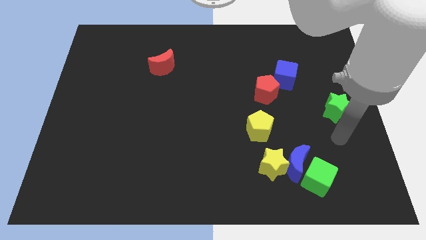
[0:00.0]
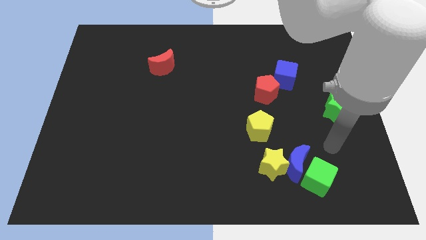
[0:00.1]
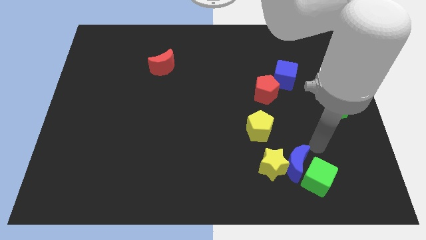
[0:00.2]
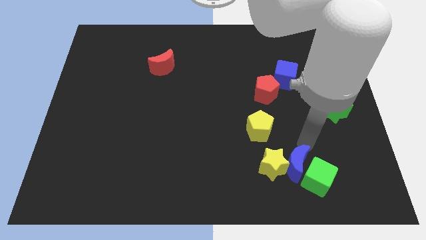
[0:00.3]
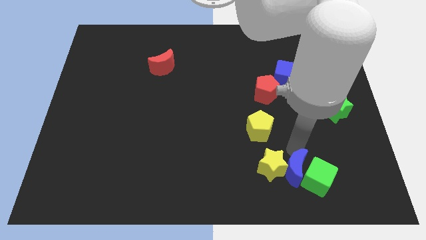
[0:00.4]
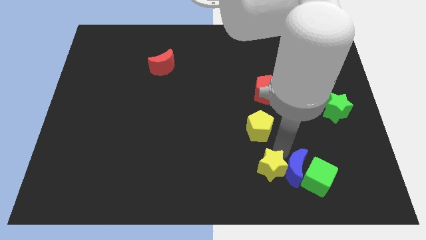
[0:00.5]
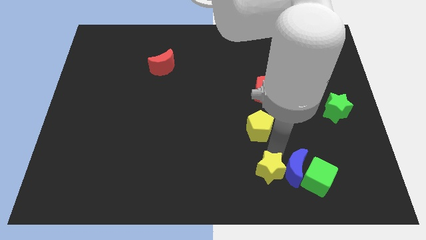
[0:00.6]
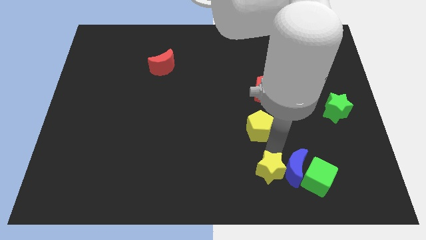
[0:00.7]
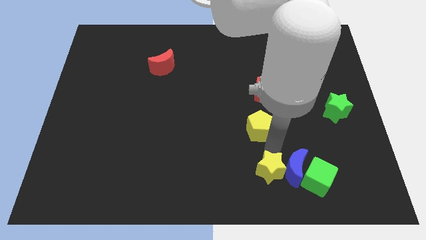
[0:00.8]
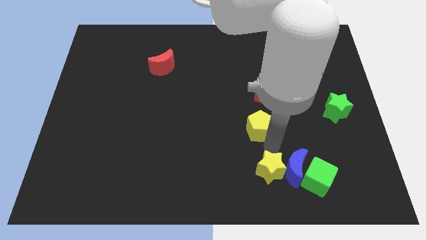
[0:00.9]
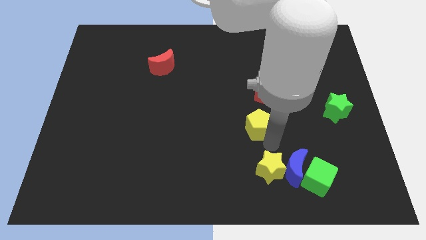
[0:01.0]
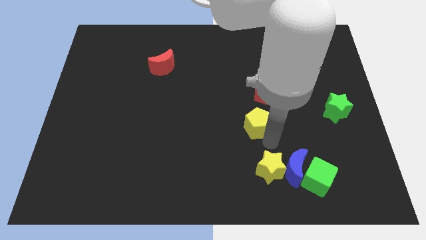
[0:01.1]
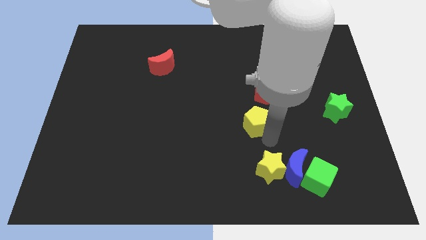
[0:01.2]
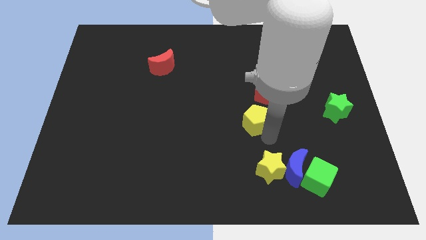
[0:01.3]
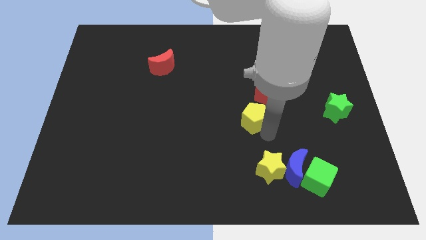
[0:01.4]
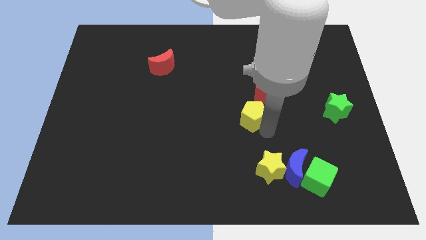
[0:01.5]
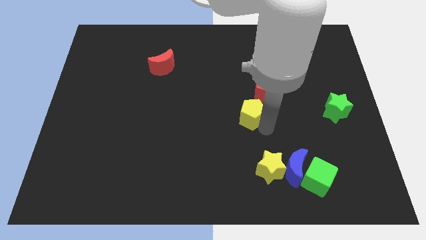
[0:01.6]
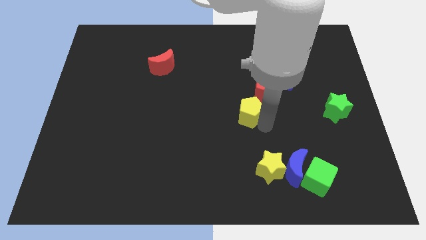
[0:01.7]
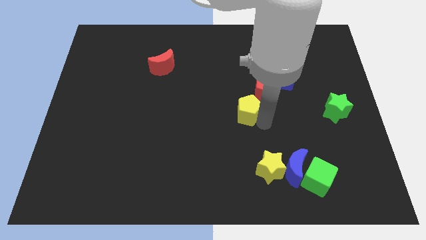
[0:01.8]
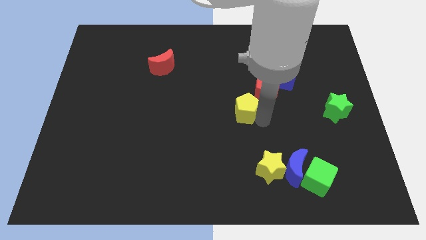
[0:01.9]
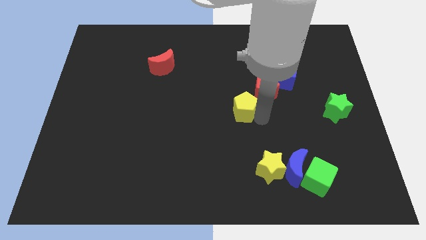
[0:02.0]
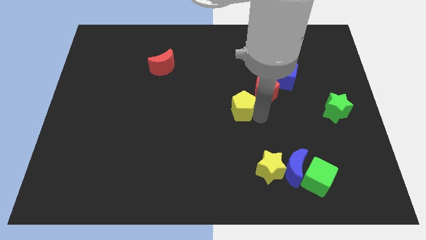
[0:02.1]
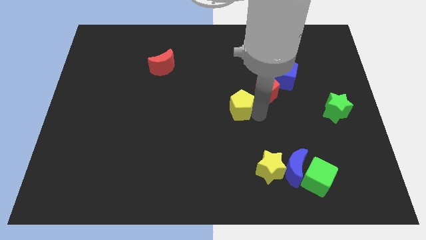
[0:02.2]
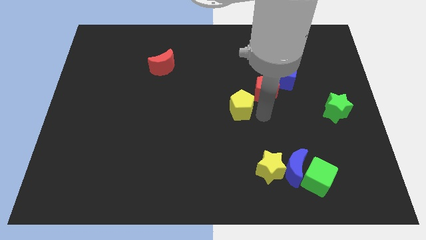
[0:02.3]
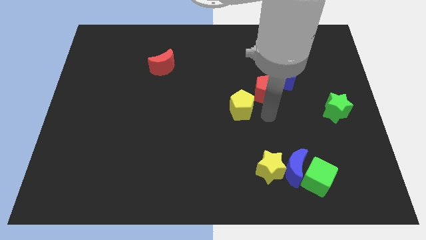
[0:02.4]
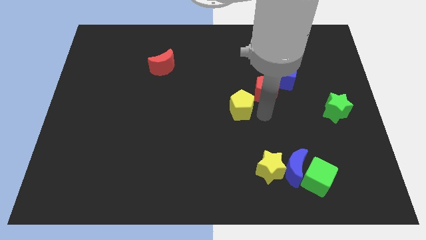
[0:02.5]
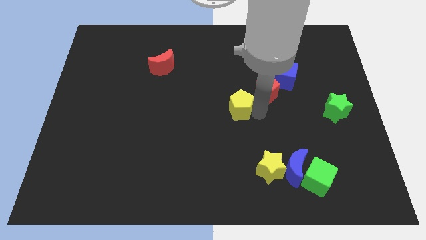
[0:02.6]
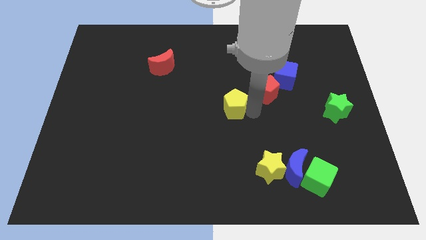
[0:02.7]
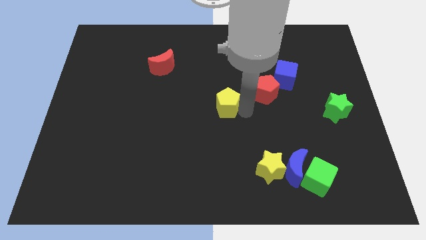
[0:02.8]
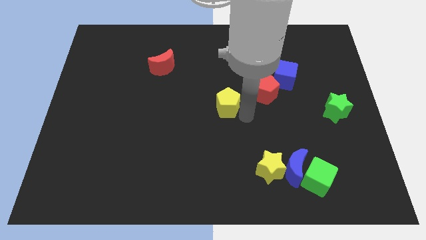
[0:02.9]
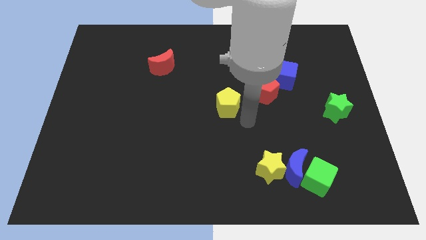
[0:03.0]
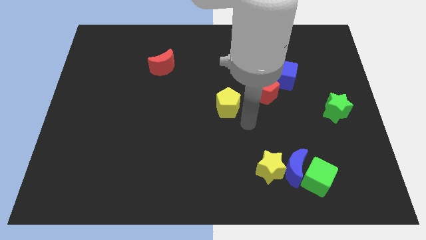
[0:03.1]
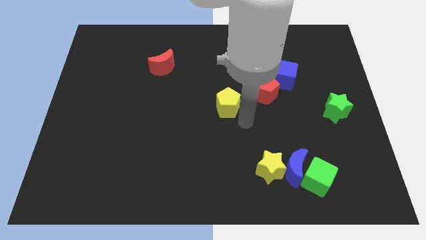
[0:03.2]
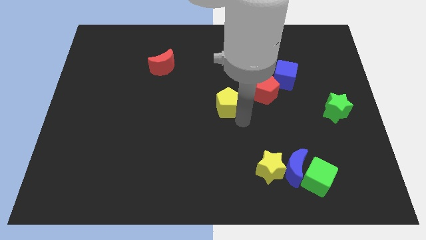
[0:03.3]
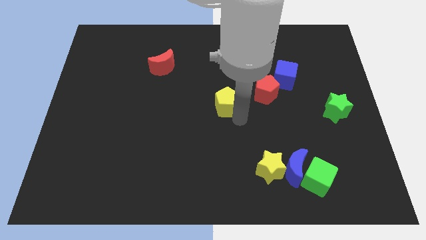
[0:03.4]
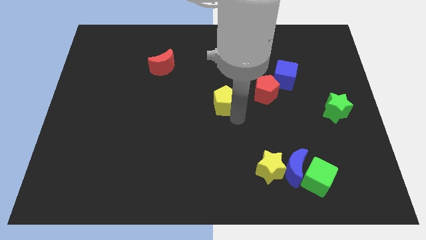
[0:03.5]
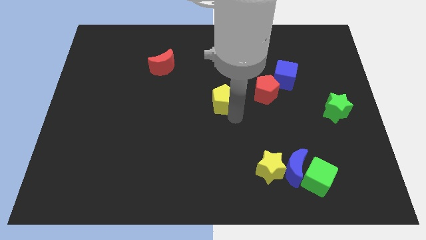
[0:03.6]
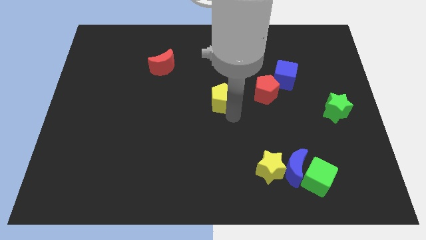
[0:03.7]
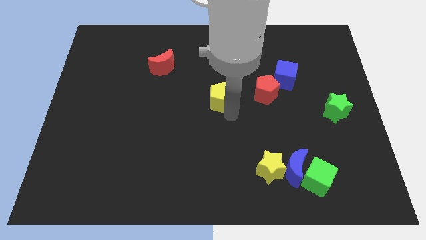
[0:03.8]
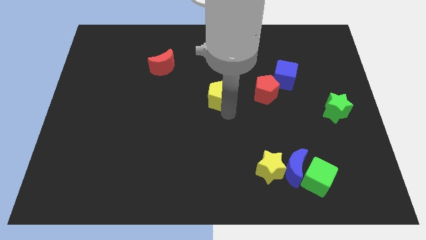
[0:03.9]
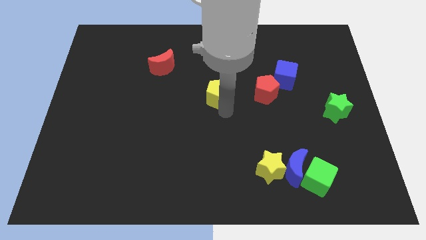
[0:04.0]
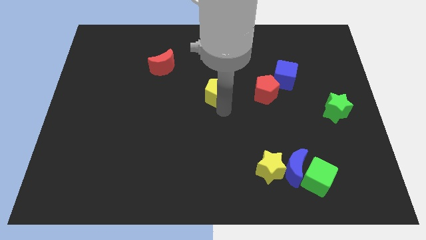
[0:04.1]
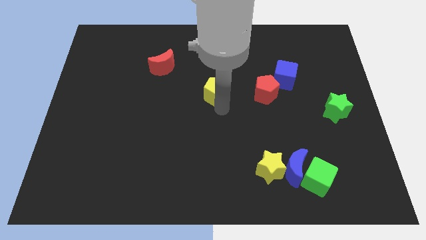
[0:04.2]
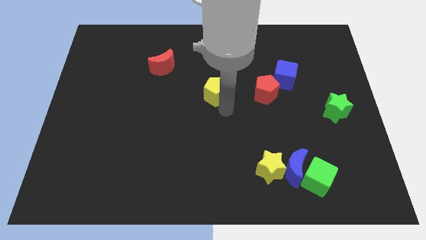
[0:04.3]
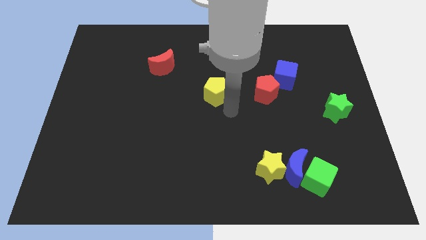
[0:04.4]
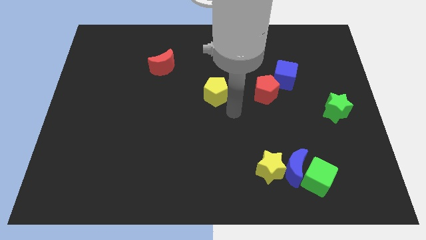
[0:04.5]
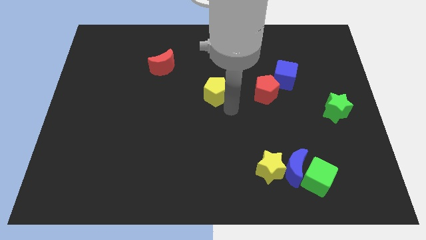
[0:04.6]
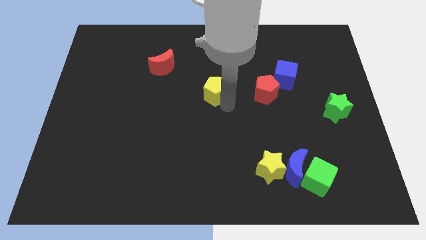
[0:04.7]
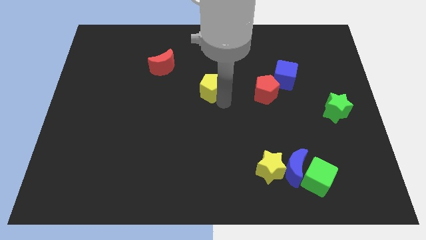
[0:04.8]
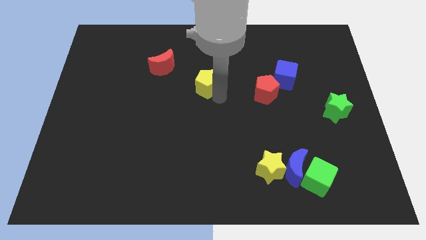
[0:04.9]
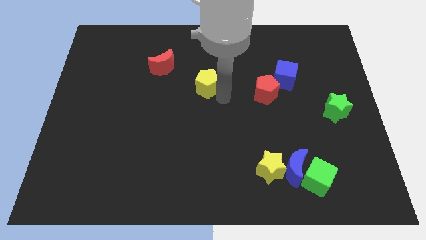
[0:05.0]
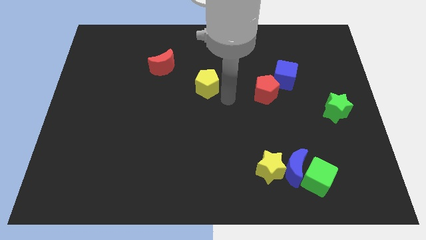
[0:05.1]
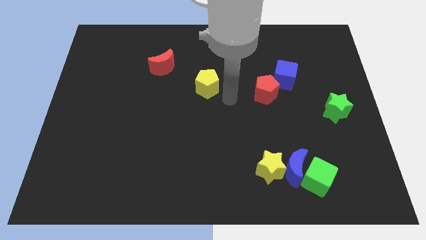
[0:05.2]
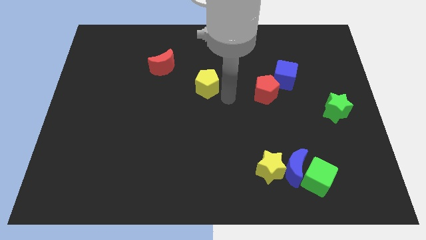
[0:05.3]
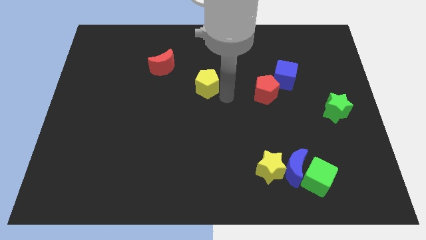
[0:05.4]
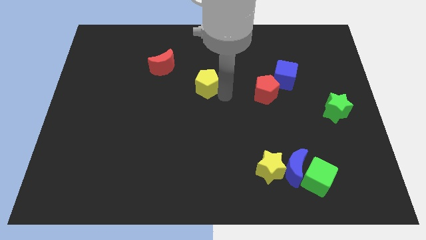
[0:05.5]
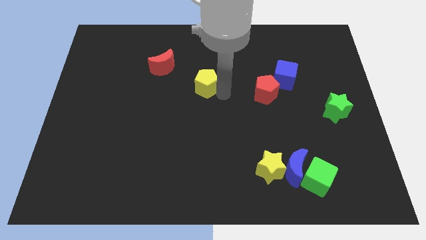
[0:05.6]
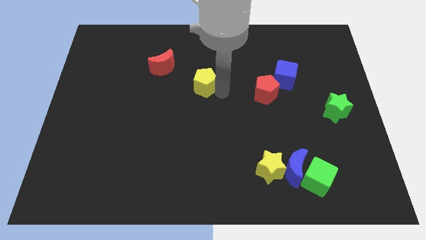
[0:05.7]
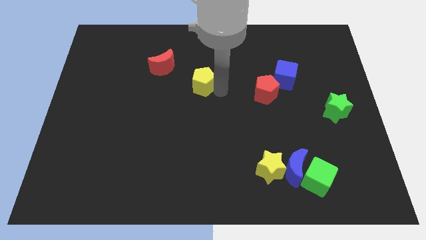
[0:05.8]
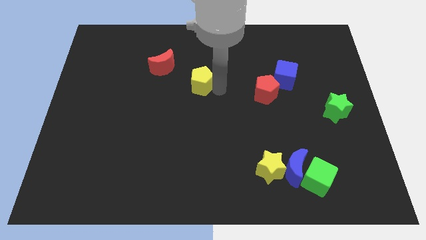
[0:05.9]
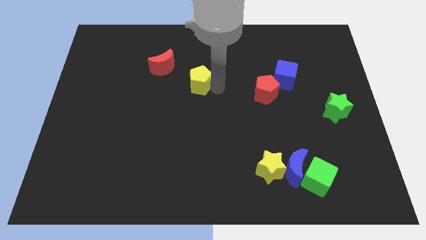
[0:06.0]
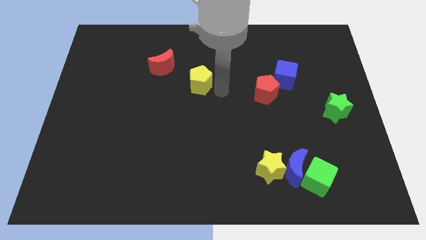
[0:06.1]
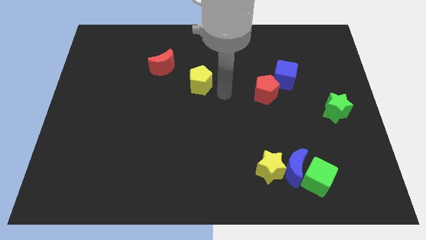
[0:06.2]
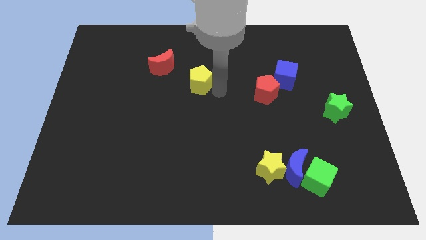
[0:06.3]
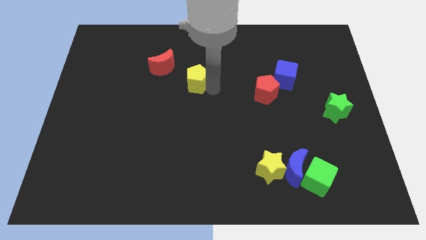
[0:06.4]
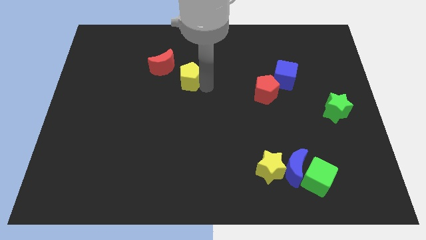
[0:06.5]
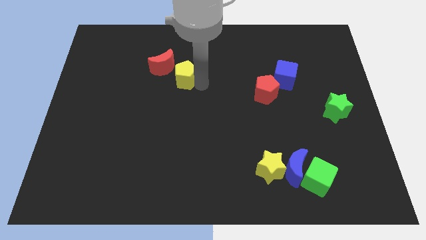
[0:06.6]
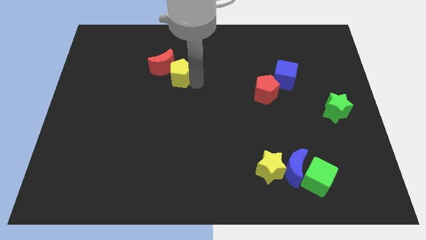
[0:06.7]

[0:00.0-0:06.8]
put the yellow pentagon towards the red moon

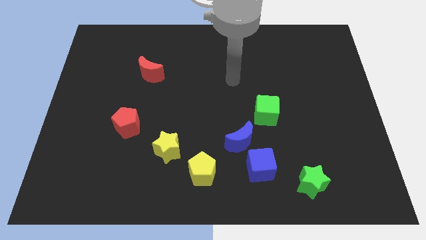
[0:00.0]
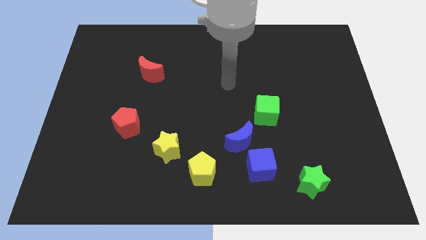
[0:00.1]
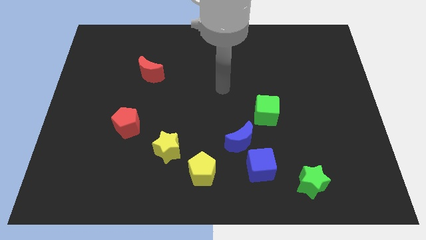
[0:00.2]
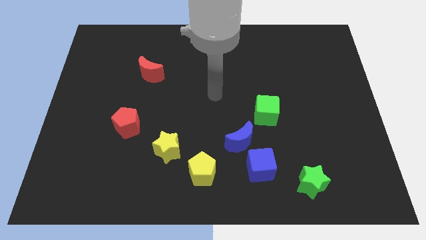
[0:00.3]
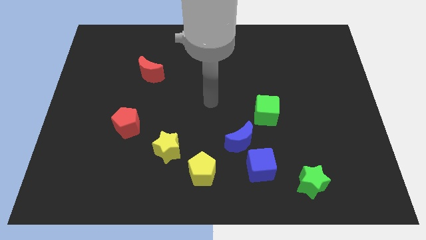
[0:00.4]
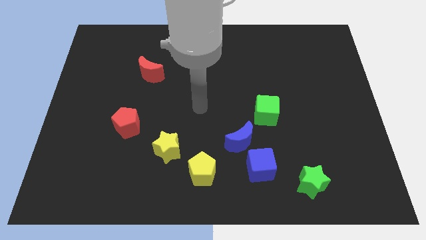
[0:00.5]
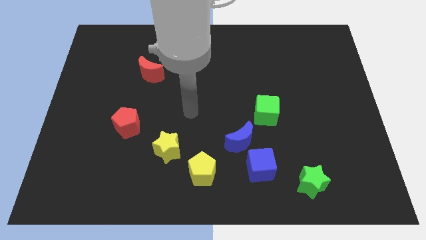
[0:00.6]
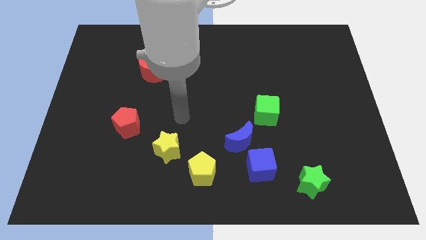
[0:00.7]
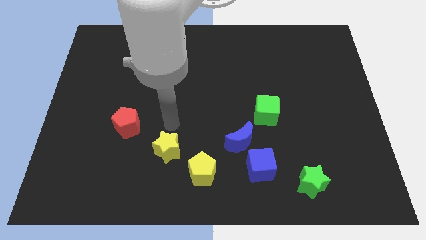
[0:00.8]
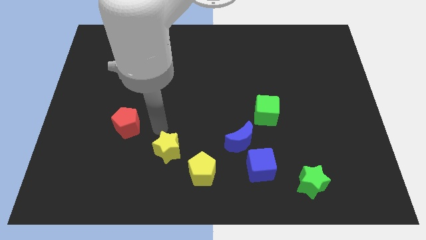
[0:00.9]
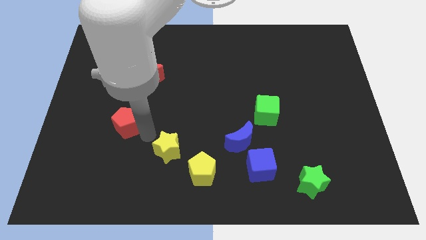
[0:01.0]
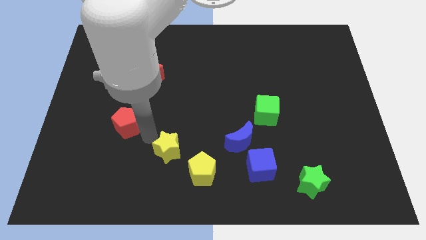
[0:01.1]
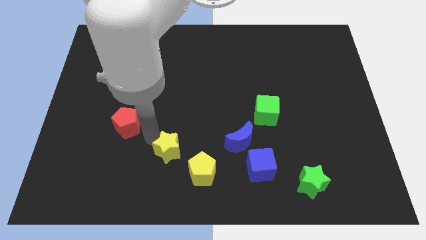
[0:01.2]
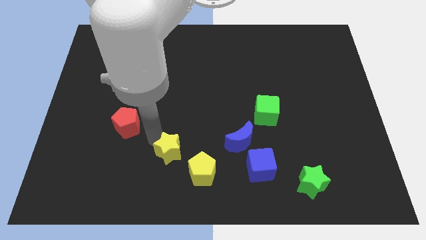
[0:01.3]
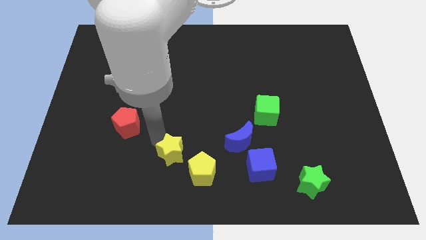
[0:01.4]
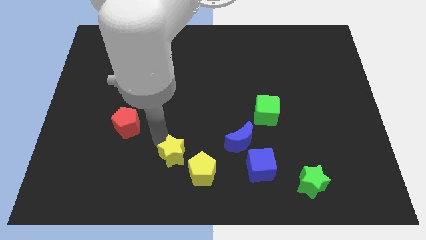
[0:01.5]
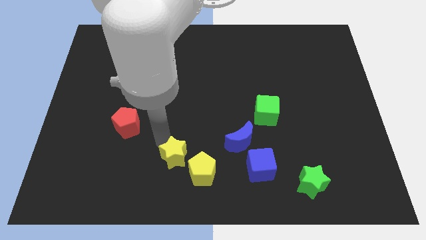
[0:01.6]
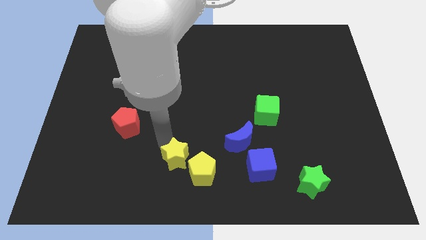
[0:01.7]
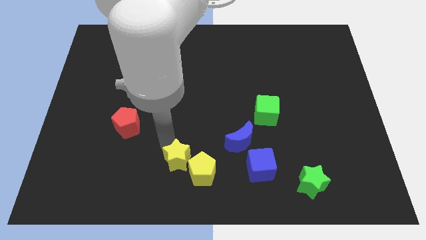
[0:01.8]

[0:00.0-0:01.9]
move the yellow star to the yellow pentagon
